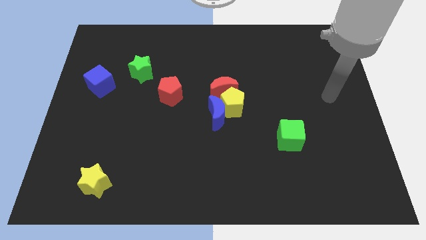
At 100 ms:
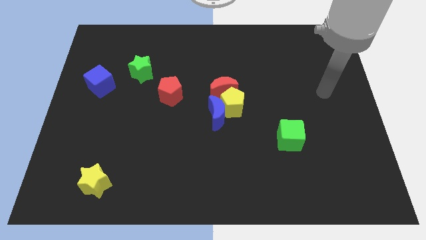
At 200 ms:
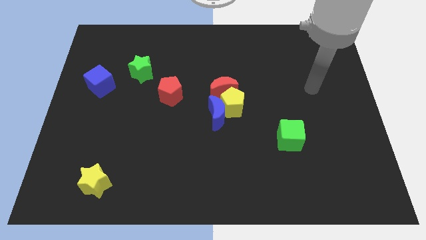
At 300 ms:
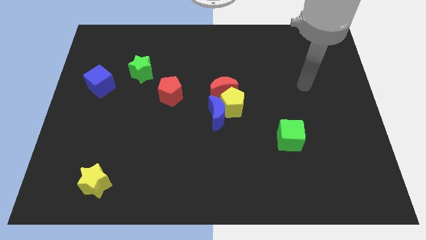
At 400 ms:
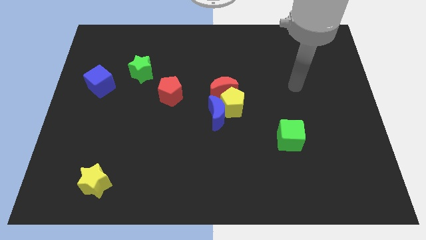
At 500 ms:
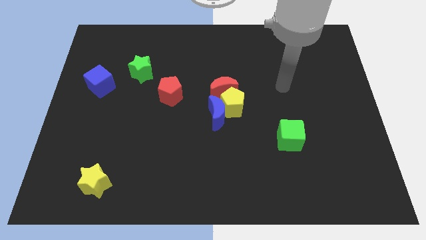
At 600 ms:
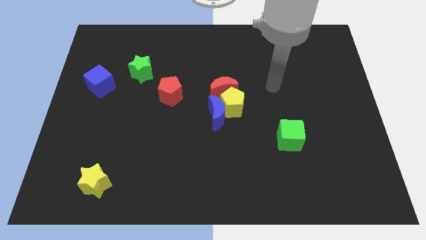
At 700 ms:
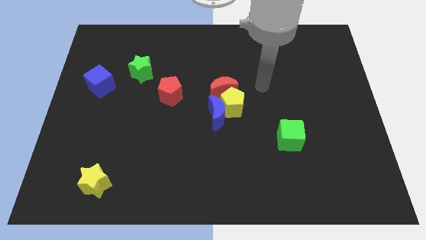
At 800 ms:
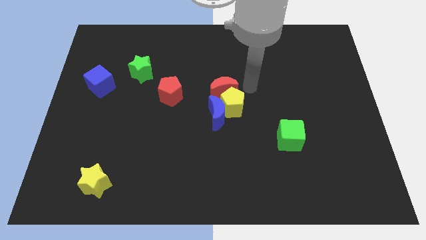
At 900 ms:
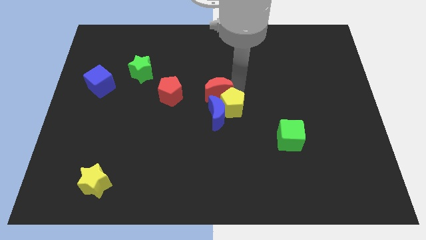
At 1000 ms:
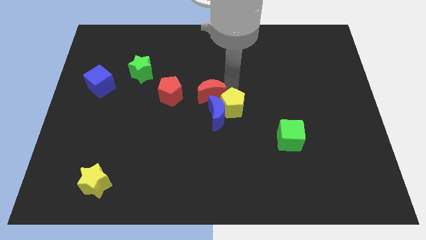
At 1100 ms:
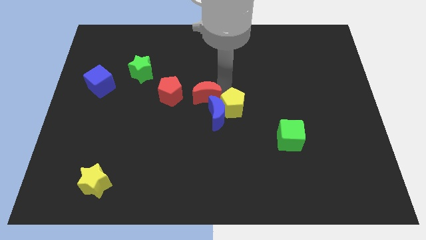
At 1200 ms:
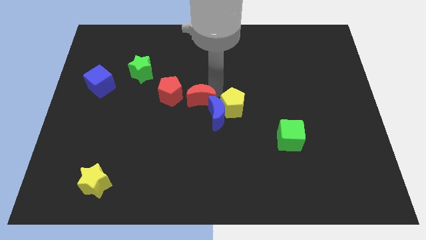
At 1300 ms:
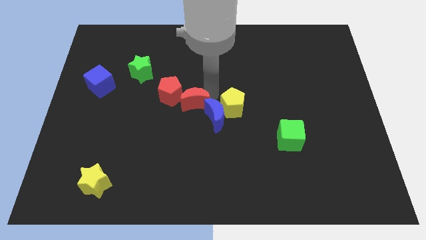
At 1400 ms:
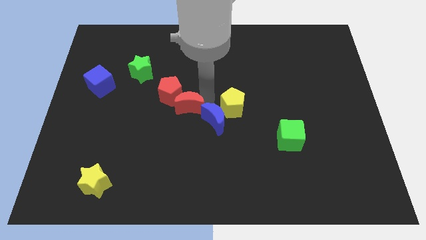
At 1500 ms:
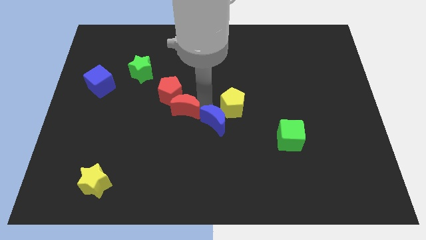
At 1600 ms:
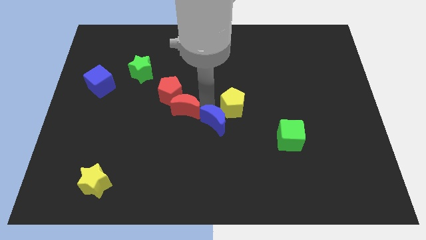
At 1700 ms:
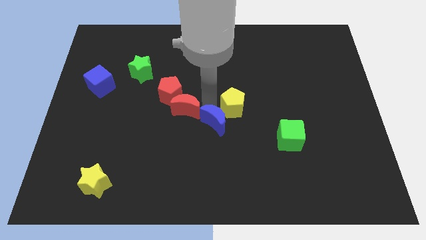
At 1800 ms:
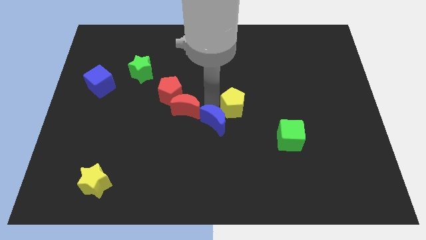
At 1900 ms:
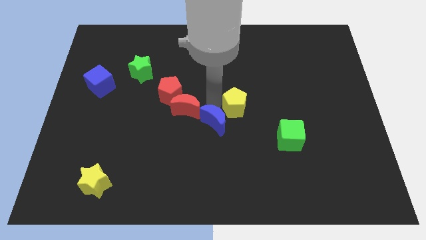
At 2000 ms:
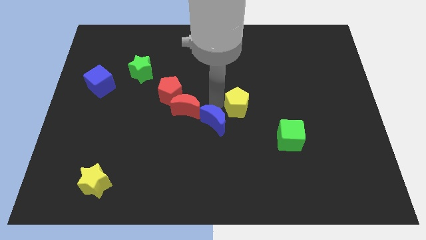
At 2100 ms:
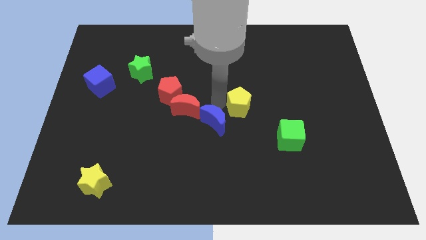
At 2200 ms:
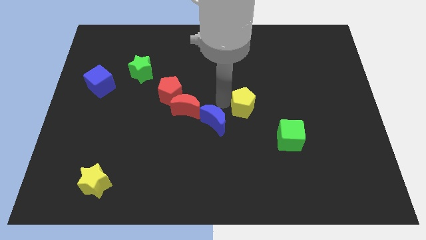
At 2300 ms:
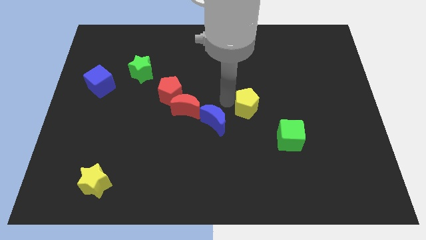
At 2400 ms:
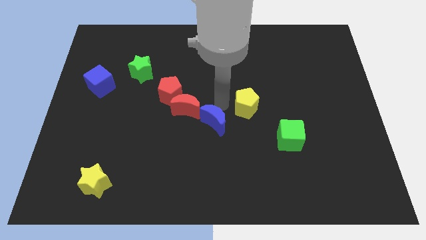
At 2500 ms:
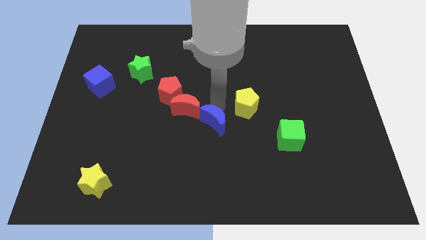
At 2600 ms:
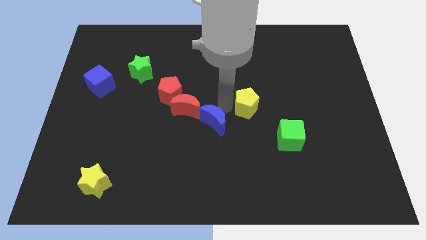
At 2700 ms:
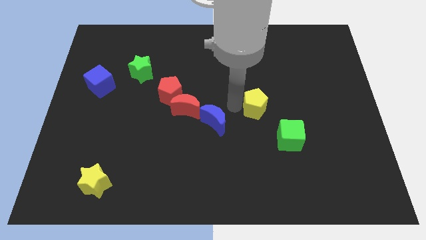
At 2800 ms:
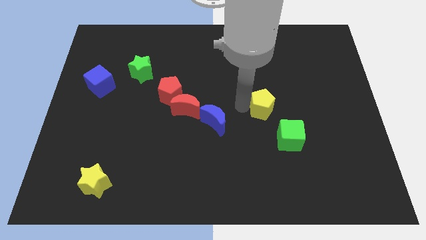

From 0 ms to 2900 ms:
slightly push the yellow pentagon to the right

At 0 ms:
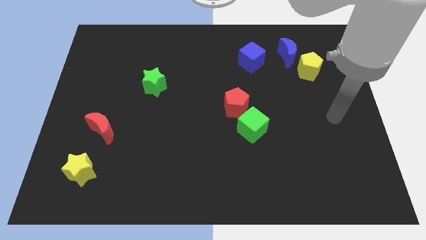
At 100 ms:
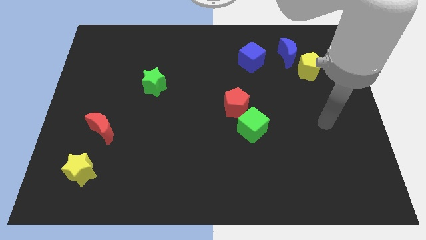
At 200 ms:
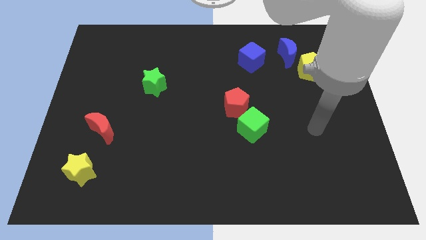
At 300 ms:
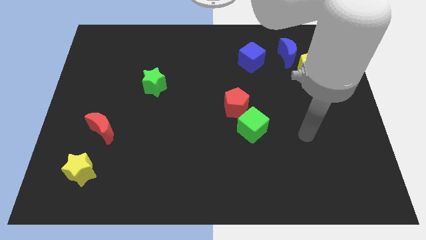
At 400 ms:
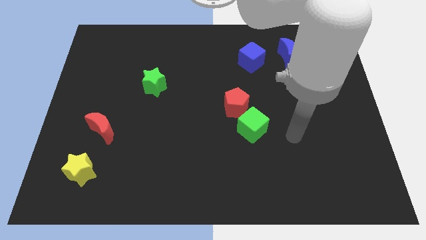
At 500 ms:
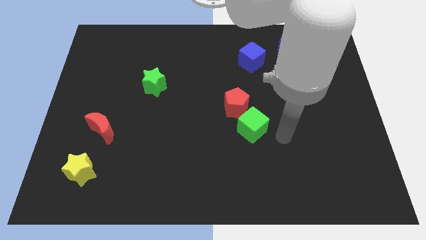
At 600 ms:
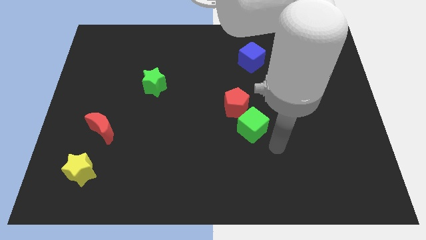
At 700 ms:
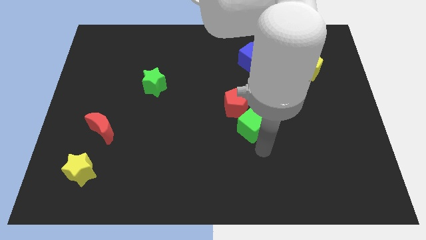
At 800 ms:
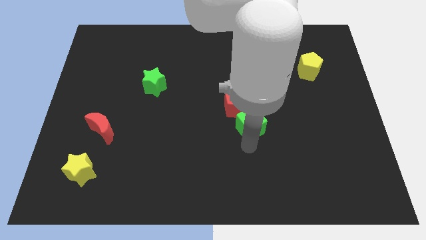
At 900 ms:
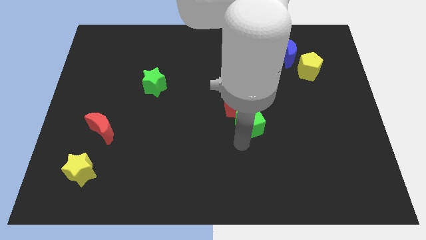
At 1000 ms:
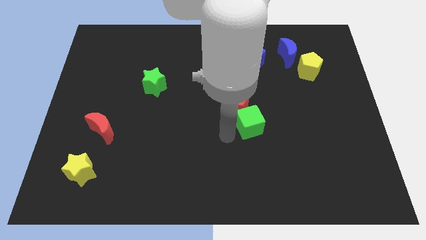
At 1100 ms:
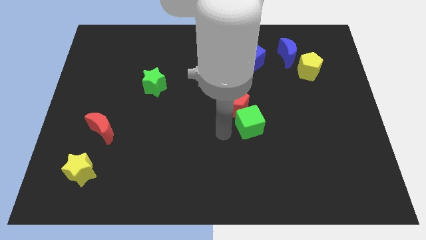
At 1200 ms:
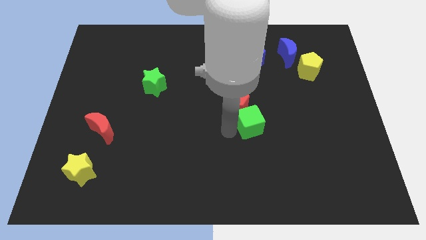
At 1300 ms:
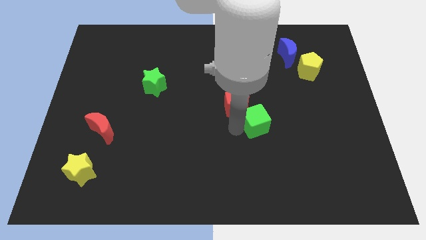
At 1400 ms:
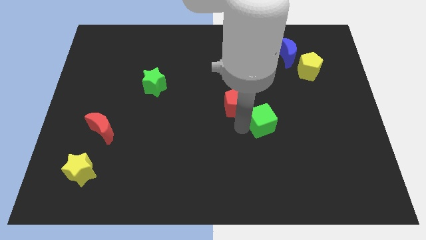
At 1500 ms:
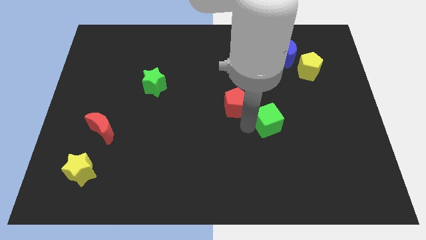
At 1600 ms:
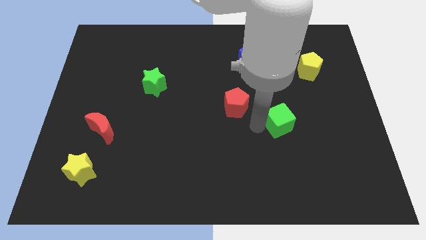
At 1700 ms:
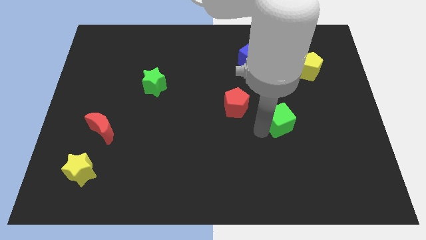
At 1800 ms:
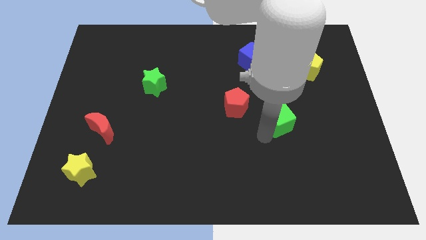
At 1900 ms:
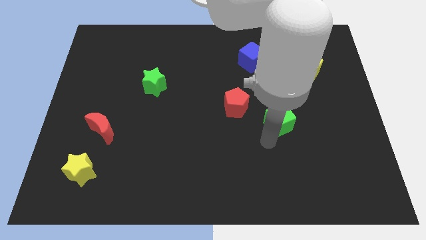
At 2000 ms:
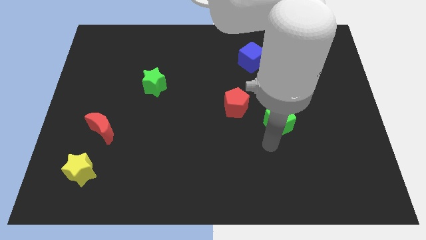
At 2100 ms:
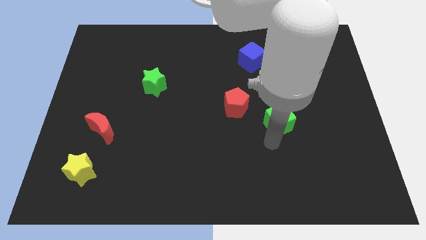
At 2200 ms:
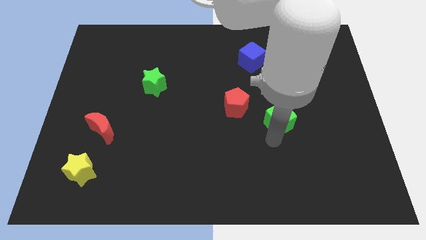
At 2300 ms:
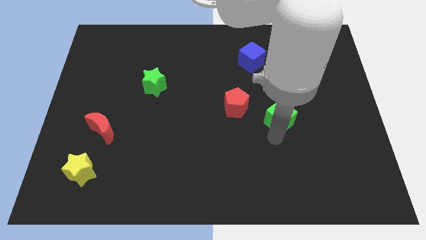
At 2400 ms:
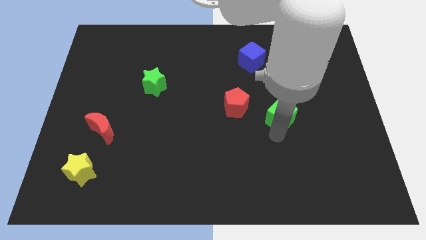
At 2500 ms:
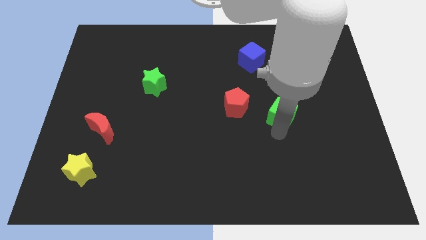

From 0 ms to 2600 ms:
push the green cube upwards and to the right a bit

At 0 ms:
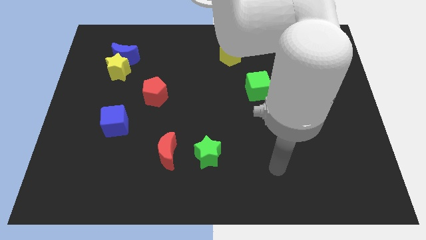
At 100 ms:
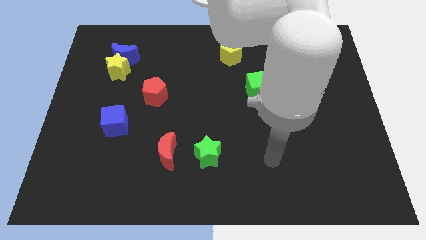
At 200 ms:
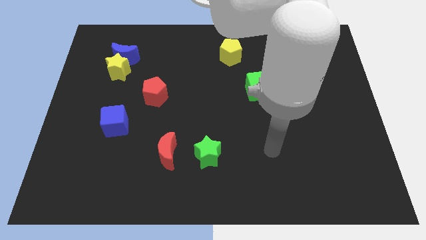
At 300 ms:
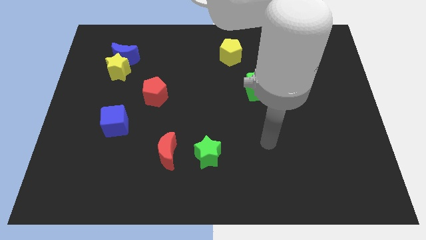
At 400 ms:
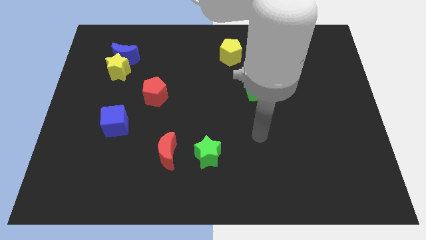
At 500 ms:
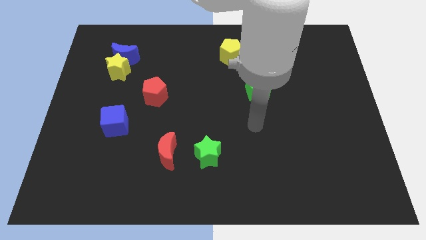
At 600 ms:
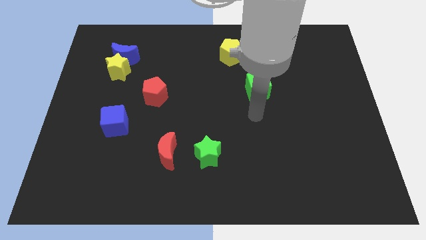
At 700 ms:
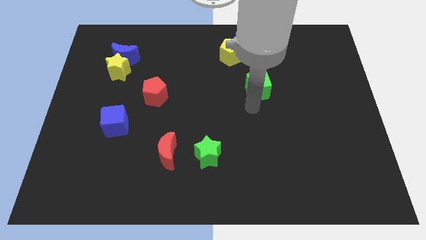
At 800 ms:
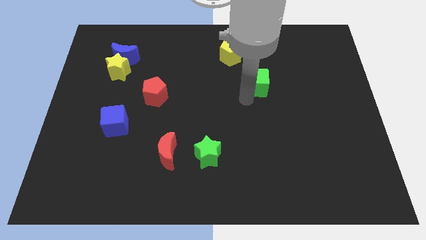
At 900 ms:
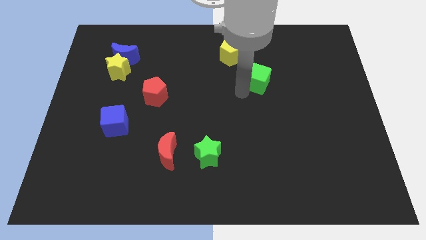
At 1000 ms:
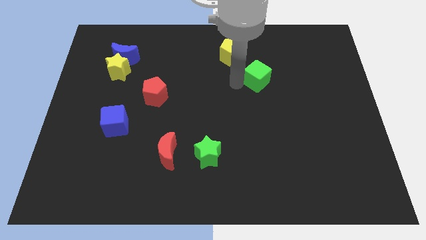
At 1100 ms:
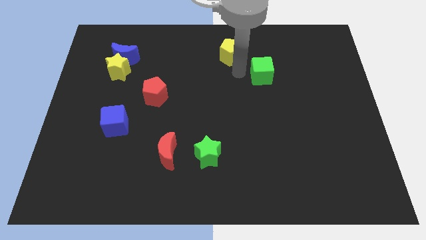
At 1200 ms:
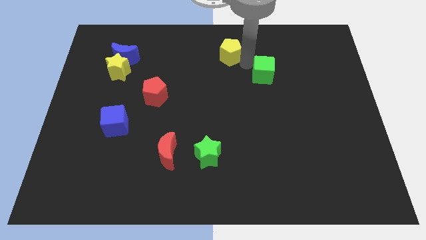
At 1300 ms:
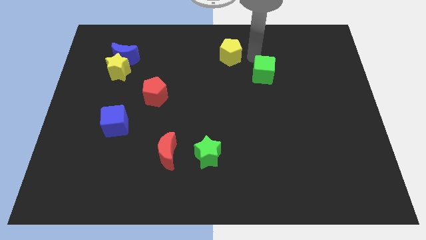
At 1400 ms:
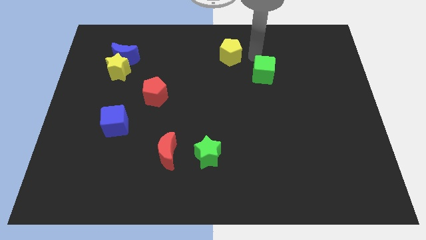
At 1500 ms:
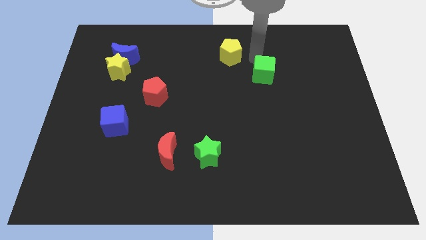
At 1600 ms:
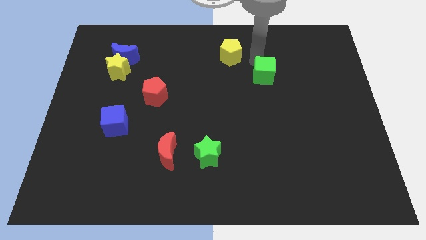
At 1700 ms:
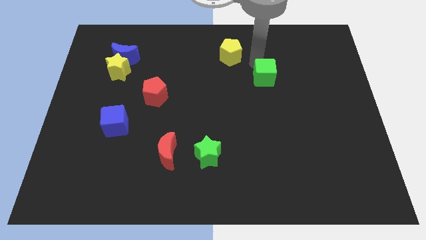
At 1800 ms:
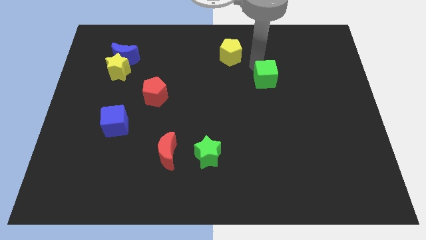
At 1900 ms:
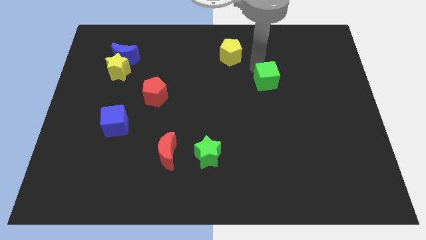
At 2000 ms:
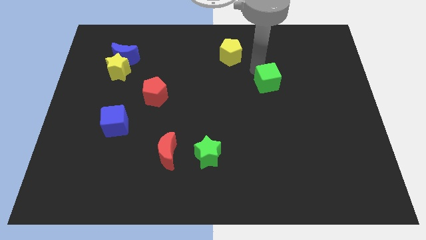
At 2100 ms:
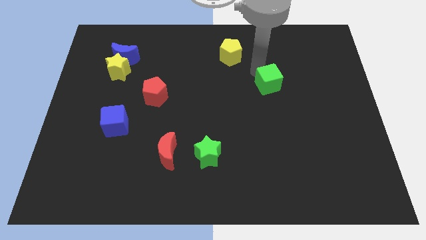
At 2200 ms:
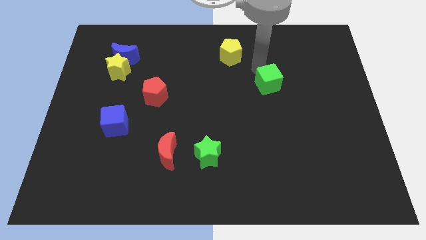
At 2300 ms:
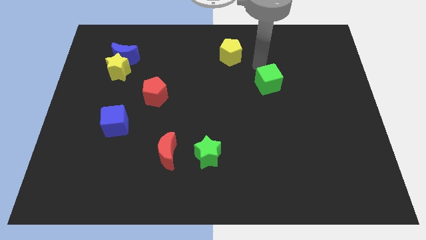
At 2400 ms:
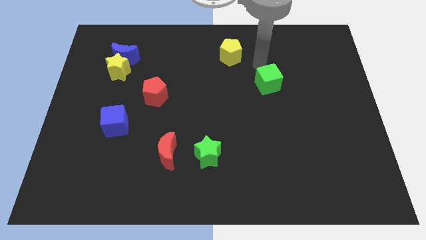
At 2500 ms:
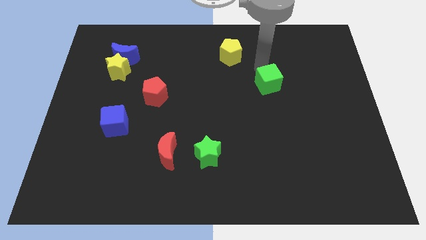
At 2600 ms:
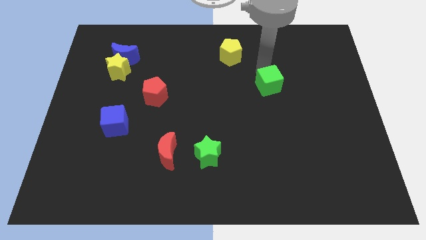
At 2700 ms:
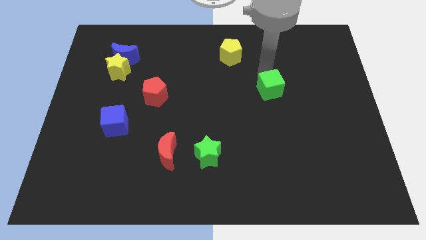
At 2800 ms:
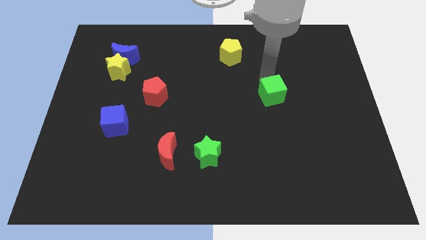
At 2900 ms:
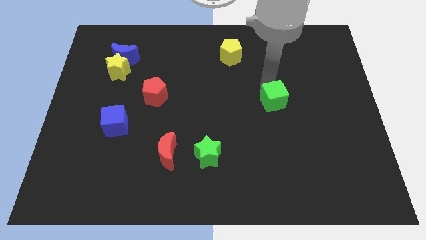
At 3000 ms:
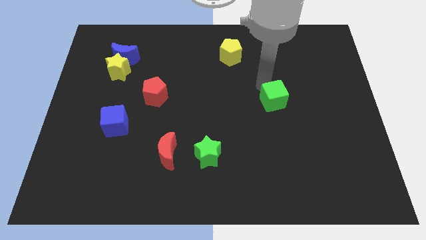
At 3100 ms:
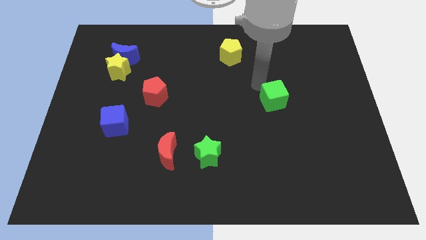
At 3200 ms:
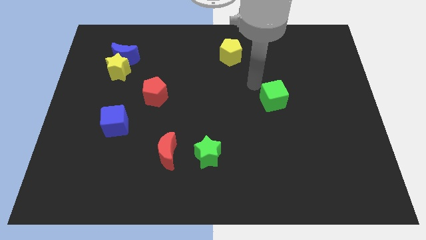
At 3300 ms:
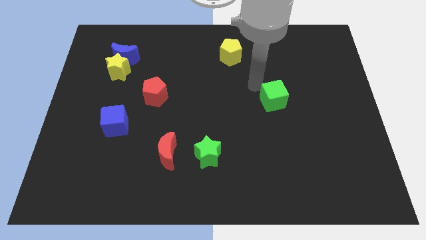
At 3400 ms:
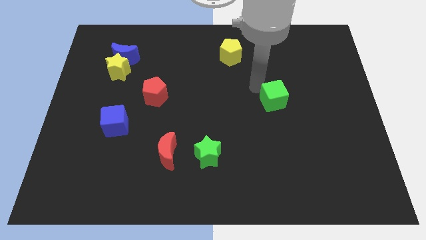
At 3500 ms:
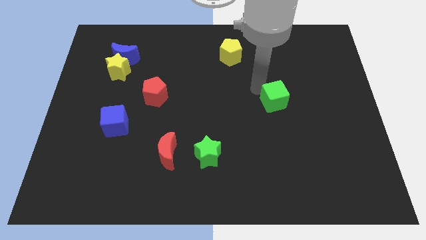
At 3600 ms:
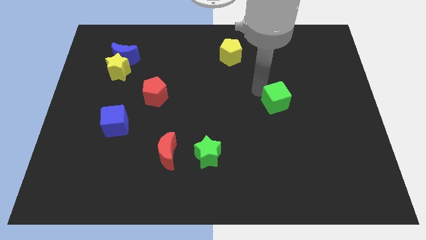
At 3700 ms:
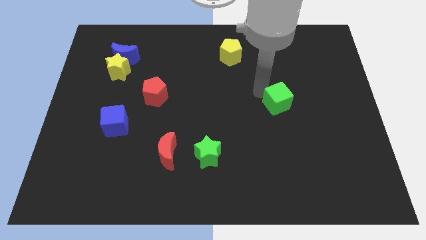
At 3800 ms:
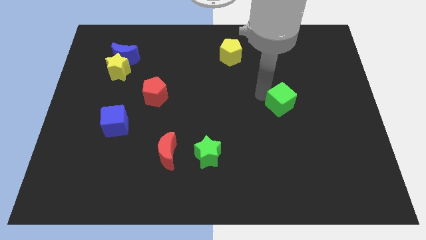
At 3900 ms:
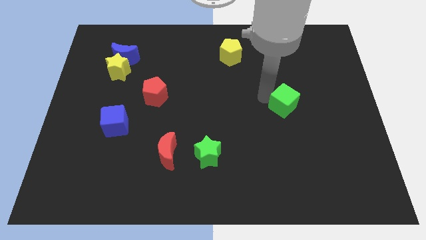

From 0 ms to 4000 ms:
push the green cube diagonally downwards and to the right somewhat
